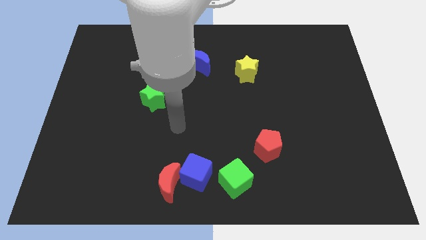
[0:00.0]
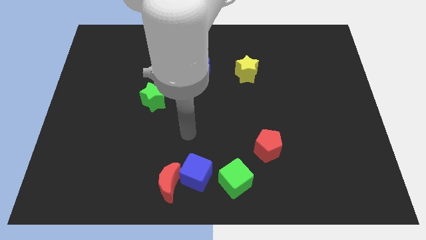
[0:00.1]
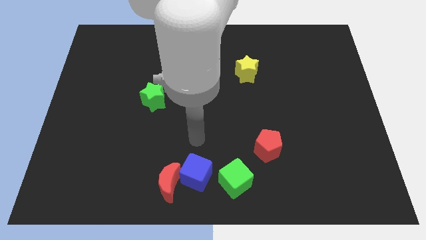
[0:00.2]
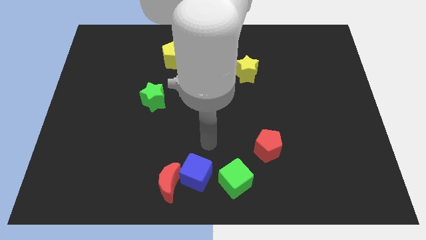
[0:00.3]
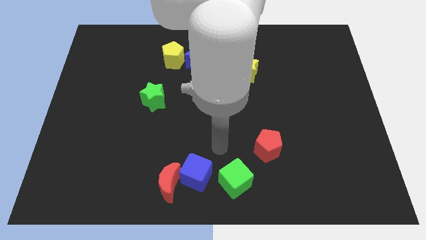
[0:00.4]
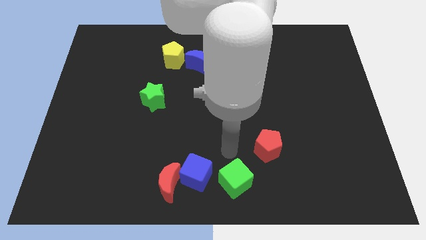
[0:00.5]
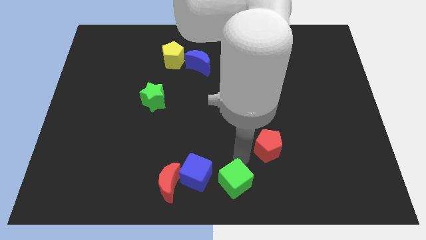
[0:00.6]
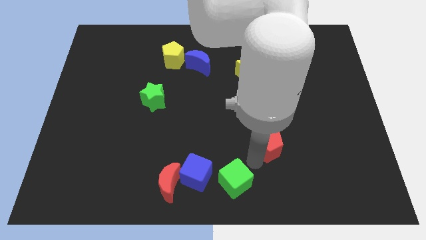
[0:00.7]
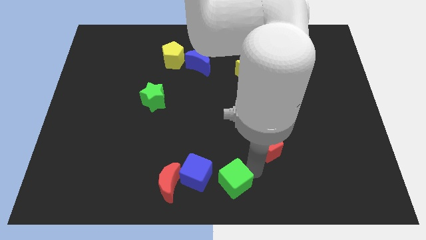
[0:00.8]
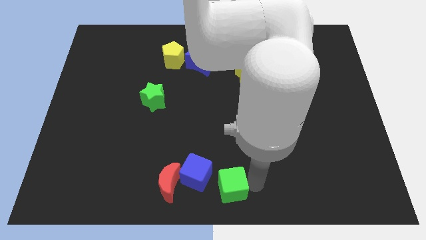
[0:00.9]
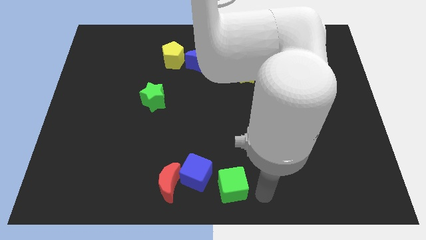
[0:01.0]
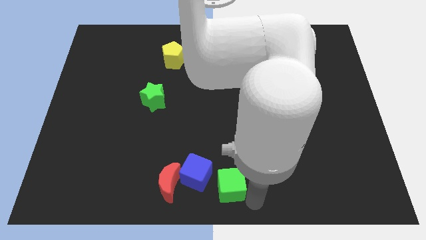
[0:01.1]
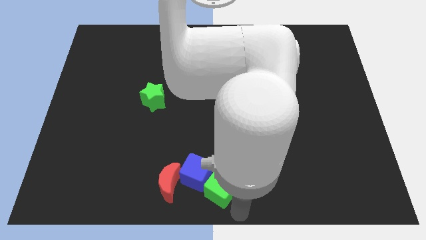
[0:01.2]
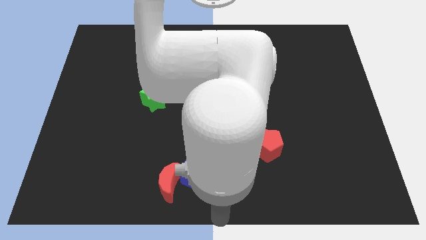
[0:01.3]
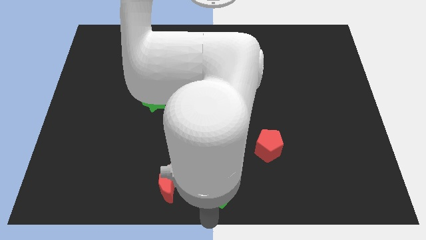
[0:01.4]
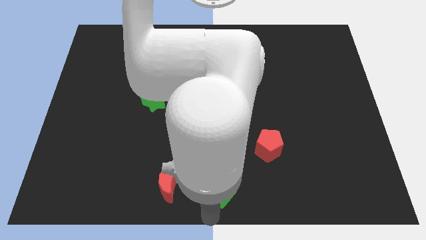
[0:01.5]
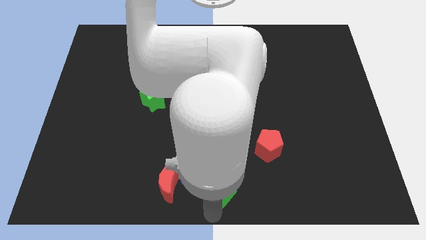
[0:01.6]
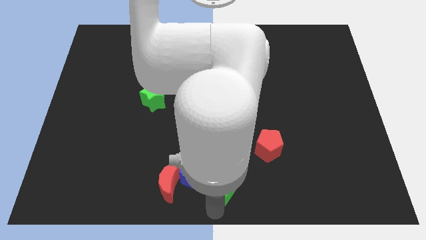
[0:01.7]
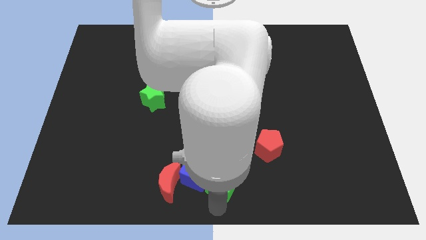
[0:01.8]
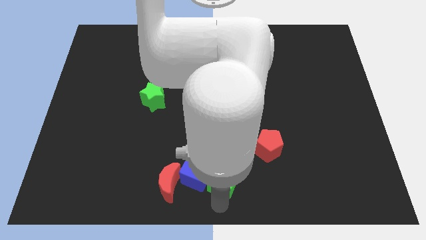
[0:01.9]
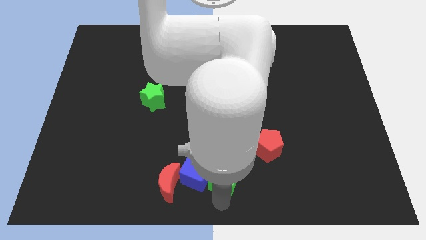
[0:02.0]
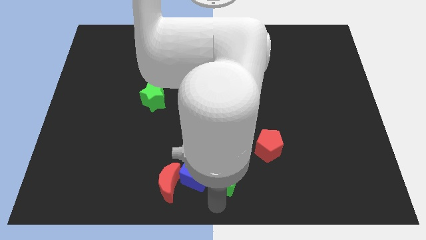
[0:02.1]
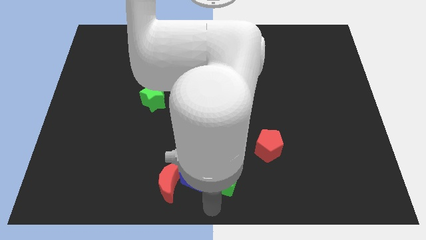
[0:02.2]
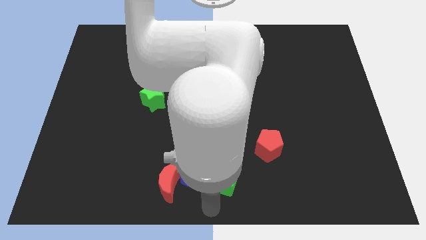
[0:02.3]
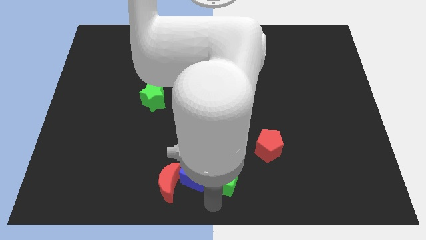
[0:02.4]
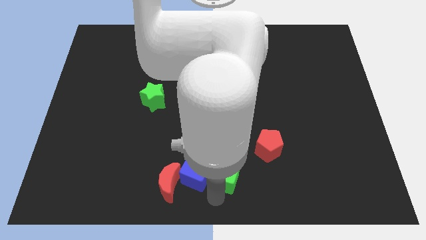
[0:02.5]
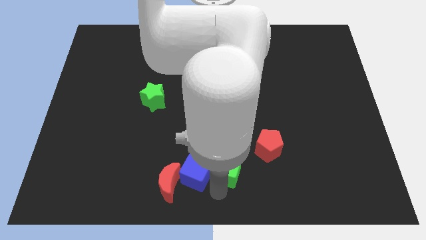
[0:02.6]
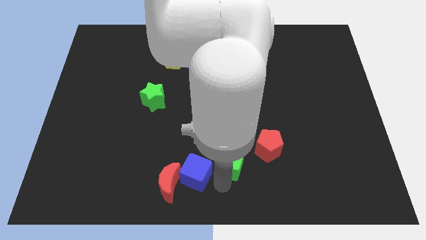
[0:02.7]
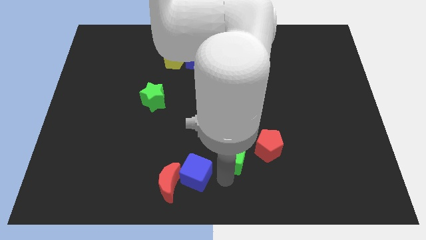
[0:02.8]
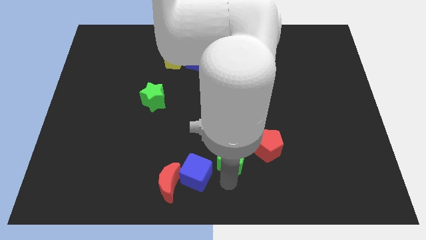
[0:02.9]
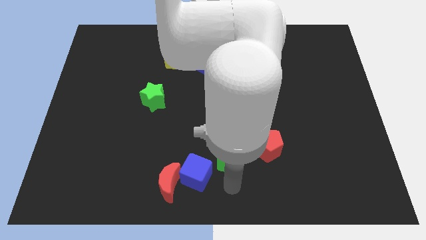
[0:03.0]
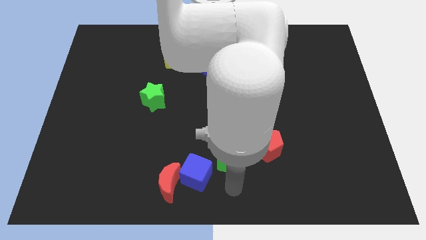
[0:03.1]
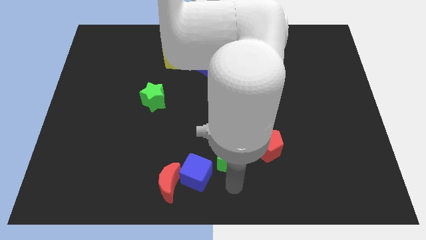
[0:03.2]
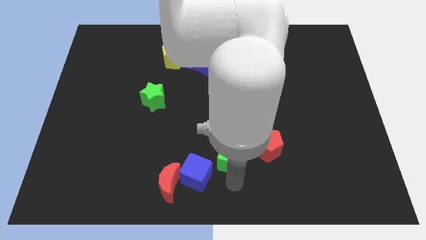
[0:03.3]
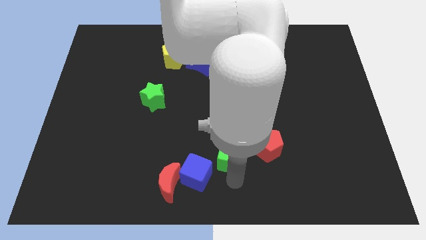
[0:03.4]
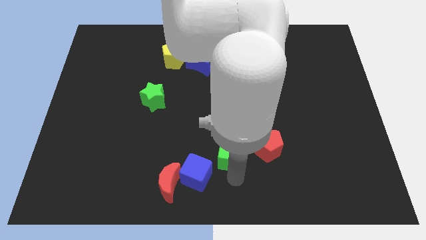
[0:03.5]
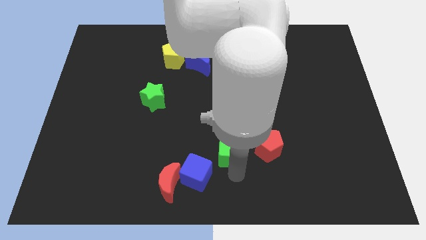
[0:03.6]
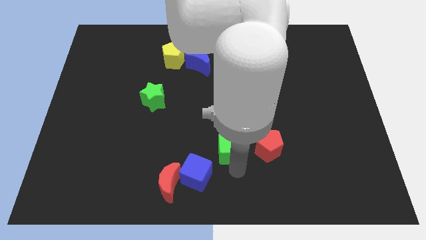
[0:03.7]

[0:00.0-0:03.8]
move the green cube up slightly

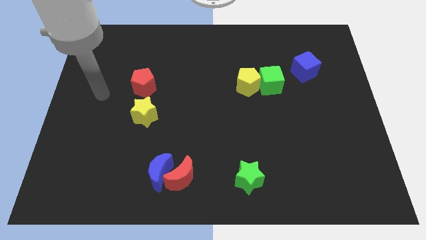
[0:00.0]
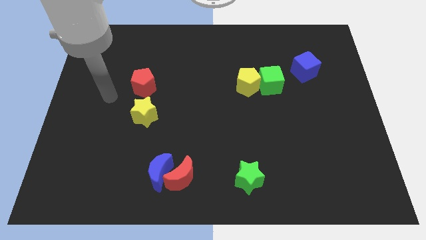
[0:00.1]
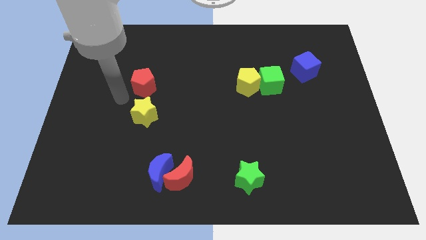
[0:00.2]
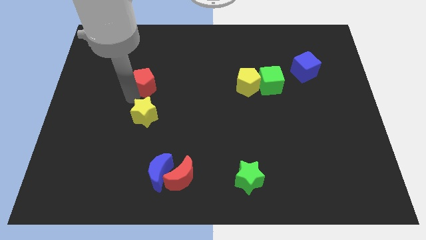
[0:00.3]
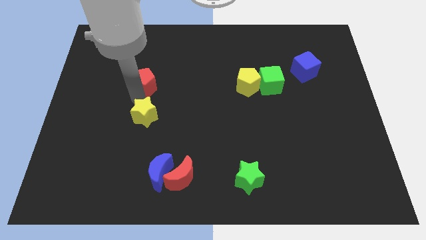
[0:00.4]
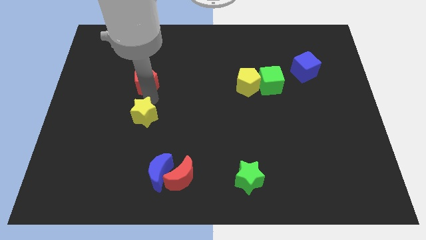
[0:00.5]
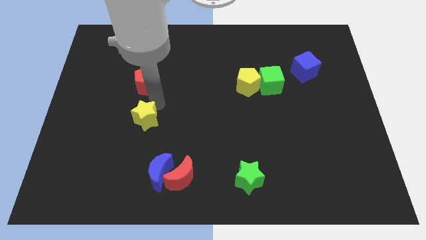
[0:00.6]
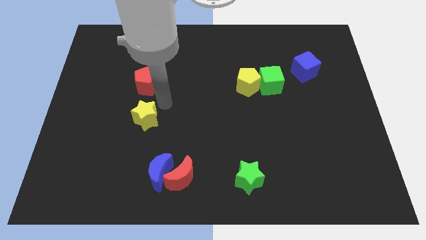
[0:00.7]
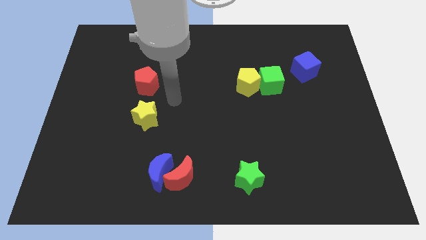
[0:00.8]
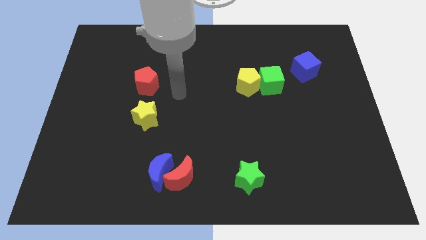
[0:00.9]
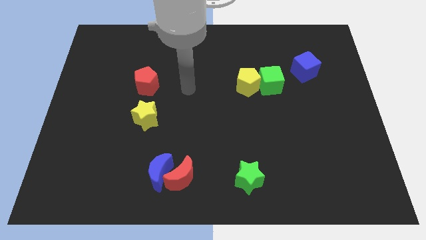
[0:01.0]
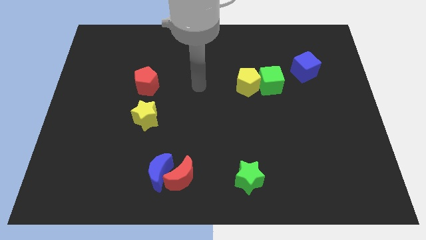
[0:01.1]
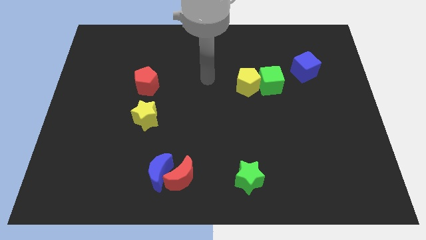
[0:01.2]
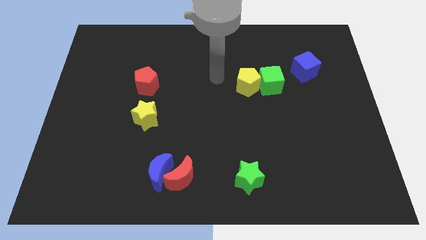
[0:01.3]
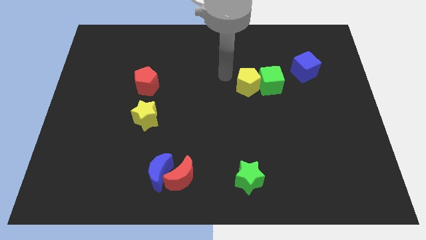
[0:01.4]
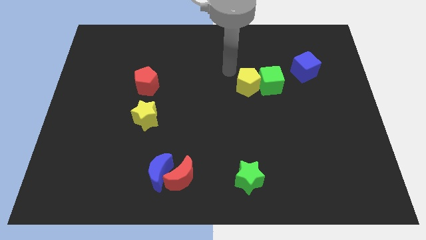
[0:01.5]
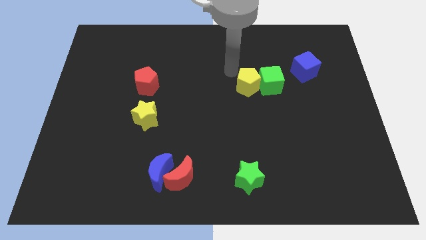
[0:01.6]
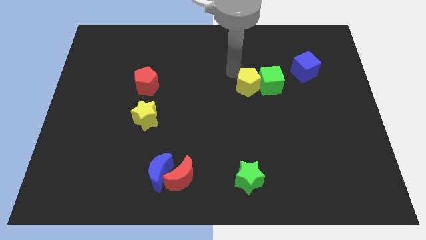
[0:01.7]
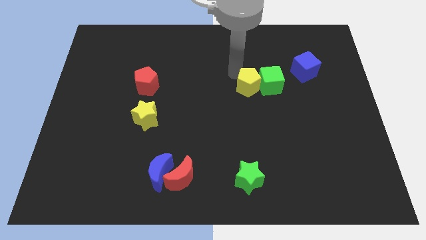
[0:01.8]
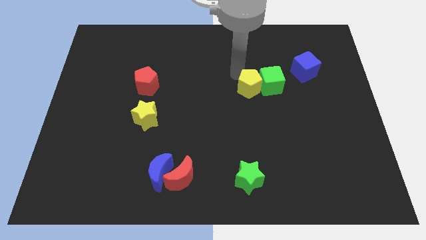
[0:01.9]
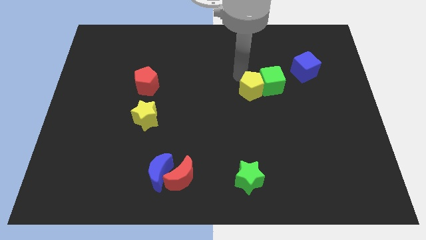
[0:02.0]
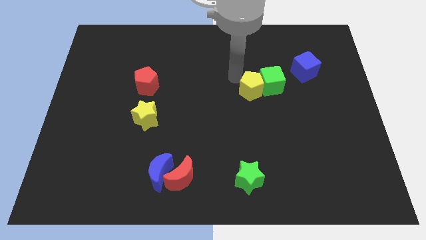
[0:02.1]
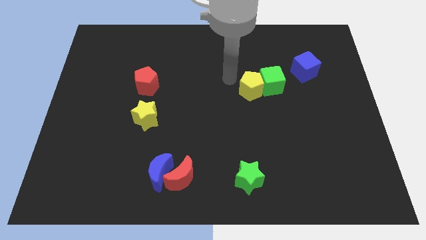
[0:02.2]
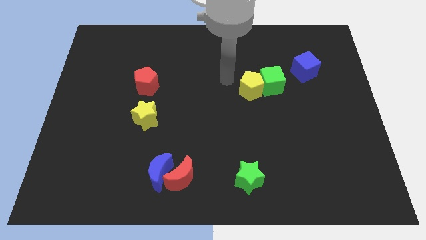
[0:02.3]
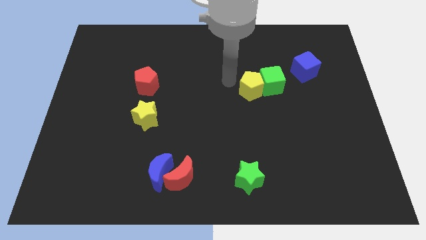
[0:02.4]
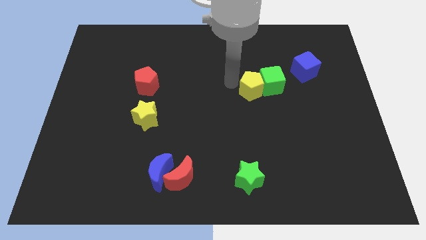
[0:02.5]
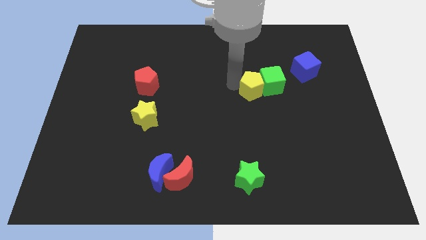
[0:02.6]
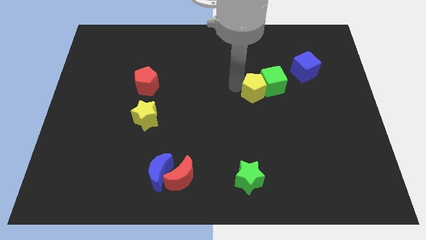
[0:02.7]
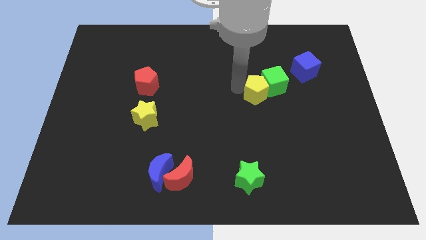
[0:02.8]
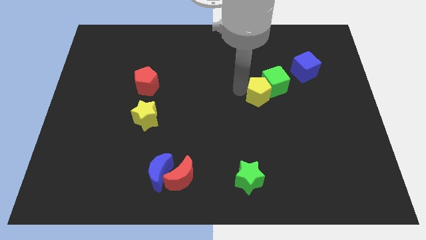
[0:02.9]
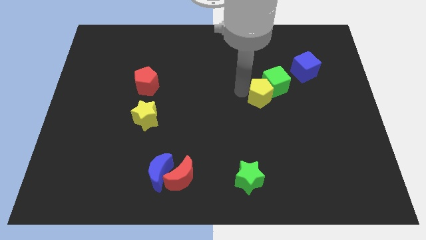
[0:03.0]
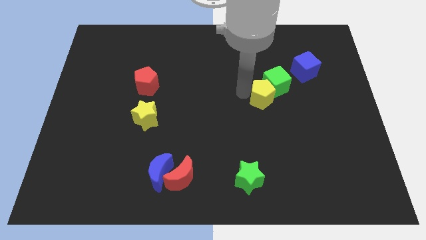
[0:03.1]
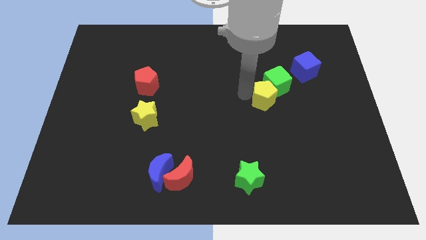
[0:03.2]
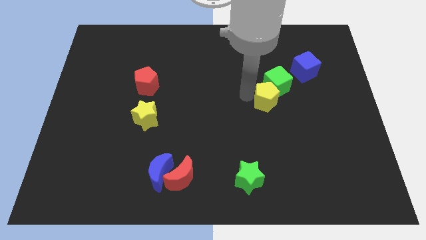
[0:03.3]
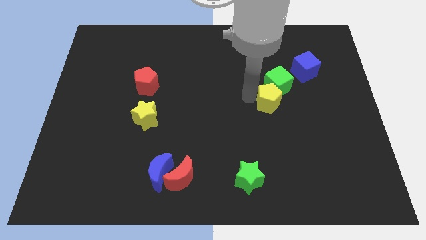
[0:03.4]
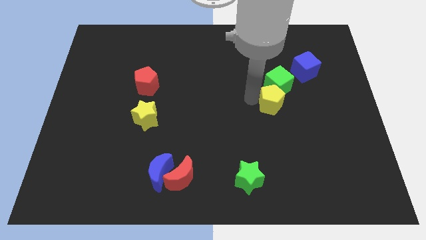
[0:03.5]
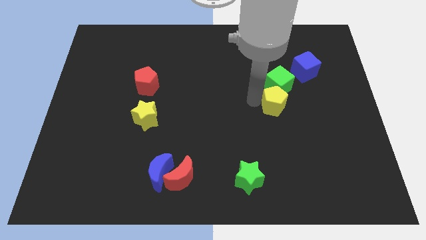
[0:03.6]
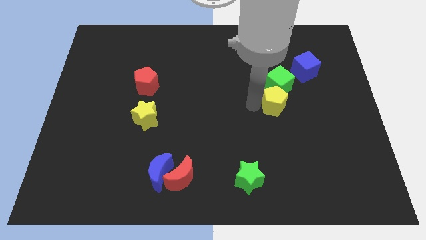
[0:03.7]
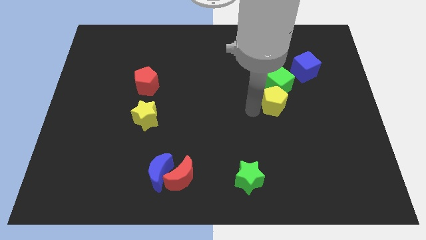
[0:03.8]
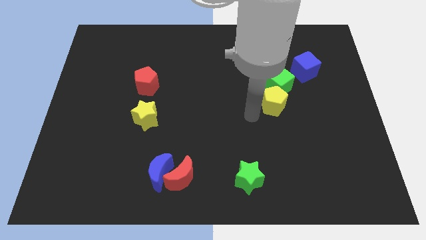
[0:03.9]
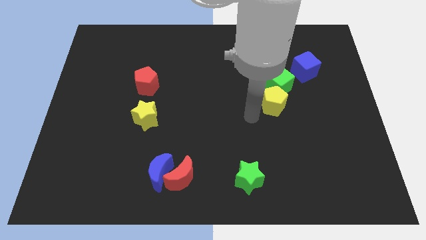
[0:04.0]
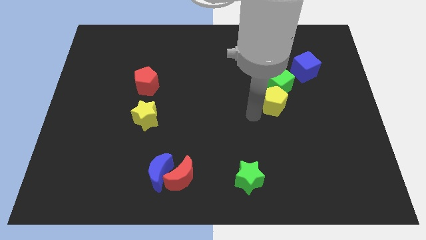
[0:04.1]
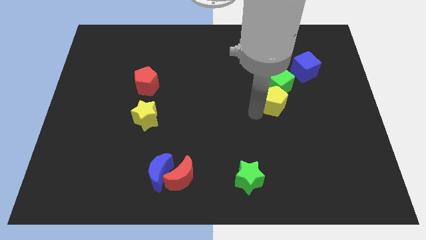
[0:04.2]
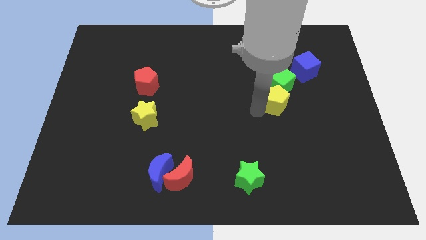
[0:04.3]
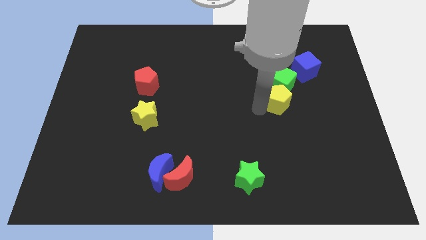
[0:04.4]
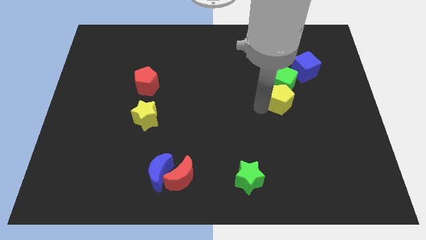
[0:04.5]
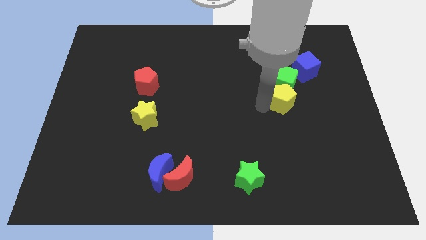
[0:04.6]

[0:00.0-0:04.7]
slide the yellow pentagon right a bit
